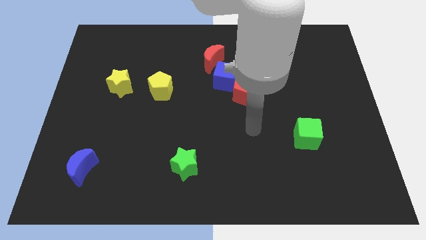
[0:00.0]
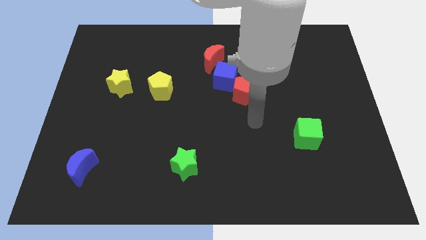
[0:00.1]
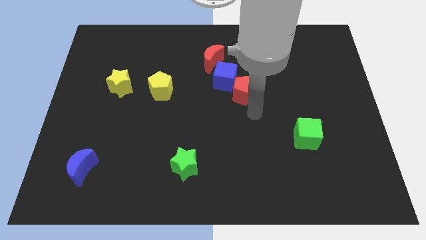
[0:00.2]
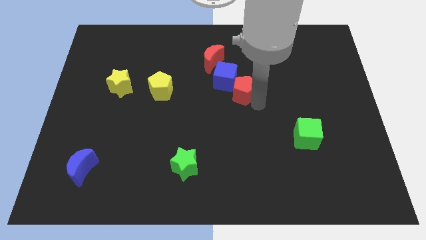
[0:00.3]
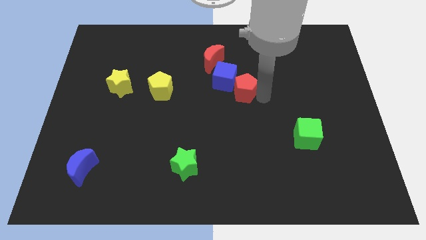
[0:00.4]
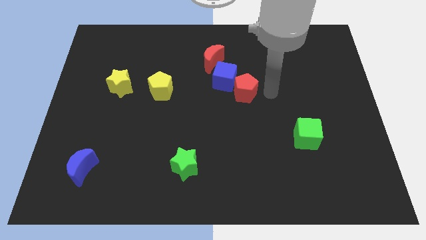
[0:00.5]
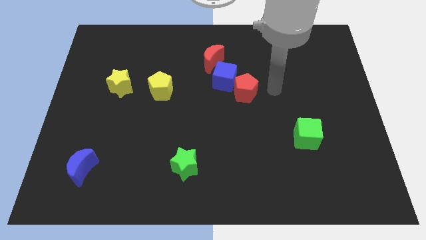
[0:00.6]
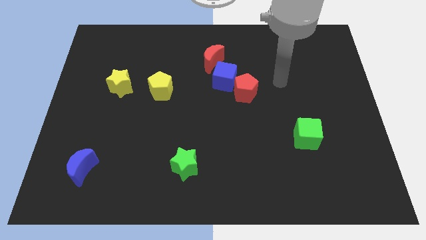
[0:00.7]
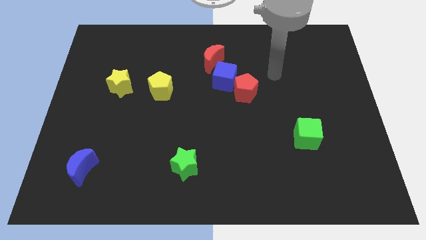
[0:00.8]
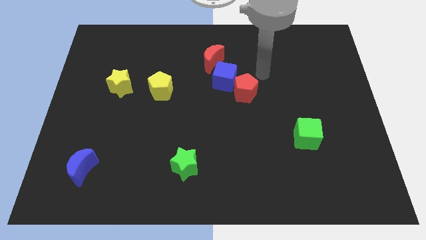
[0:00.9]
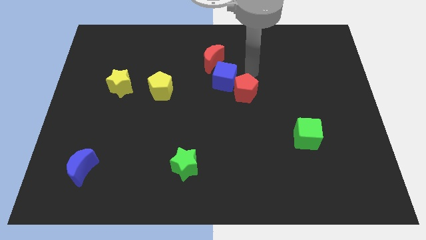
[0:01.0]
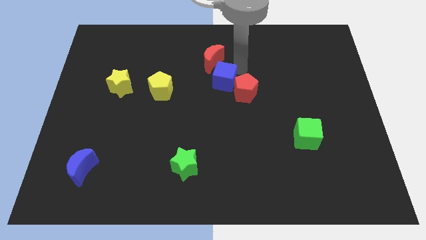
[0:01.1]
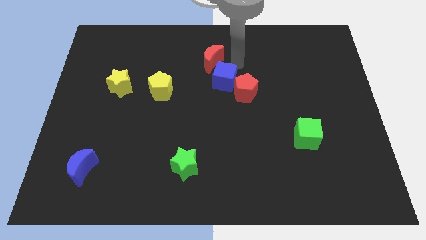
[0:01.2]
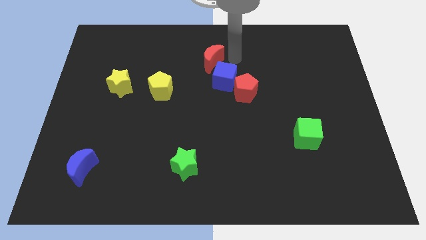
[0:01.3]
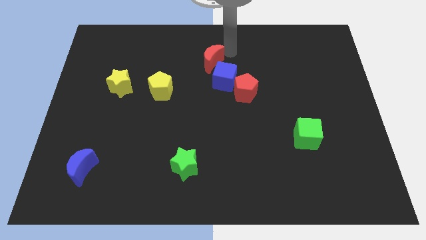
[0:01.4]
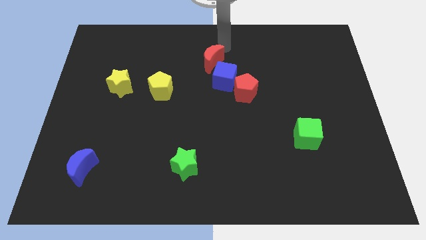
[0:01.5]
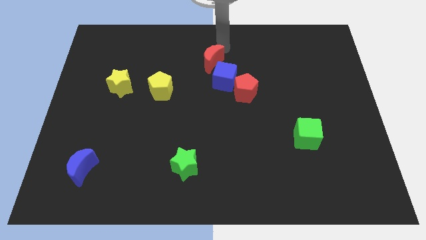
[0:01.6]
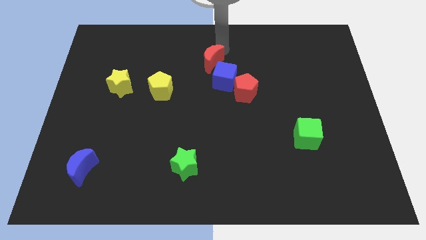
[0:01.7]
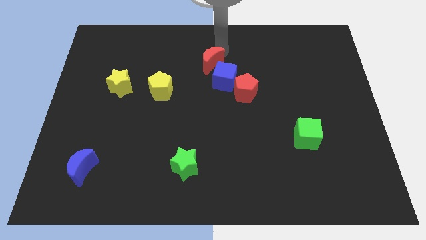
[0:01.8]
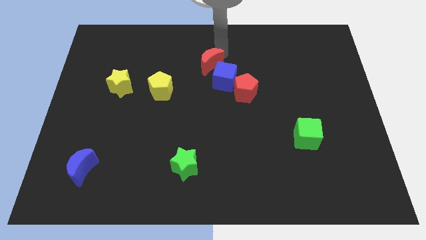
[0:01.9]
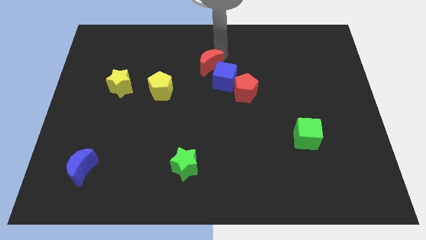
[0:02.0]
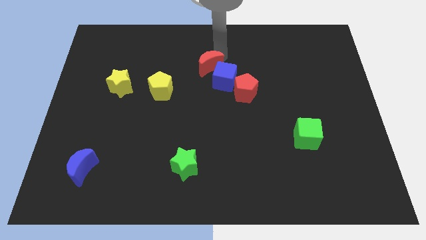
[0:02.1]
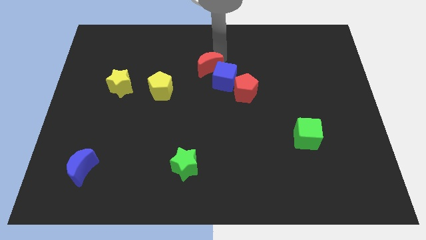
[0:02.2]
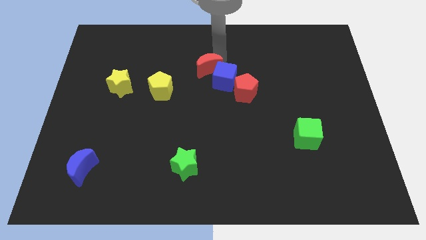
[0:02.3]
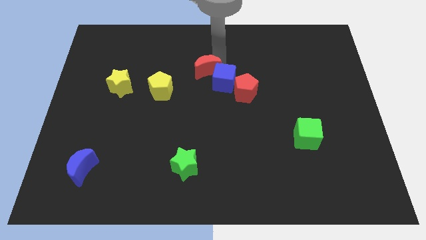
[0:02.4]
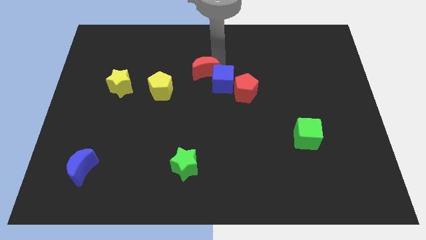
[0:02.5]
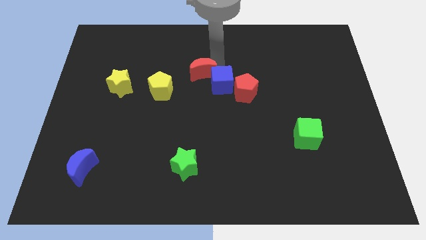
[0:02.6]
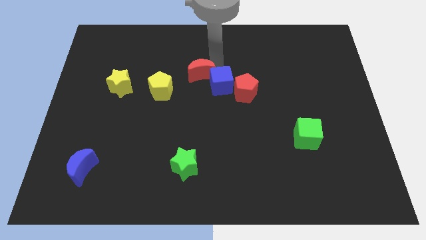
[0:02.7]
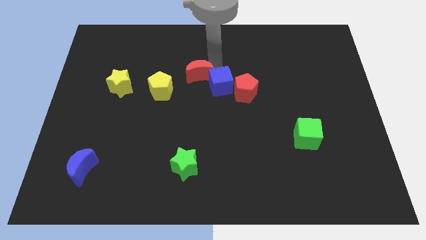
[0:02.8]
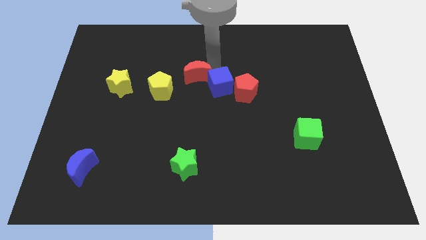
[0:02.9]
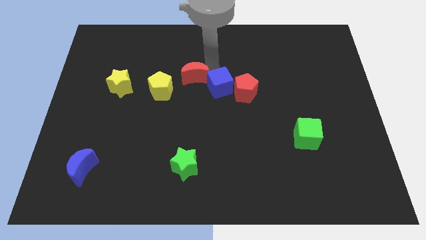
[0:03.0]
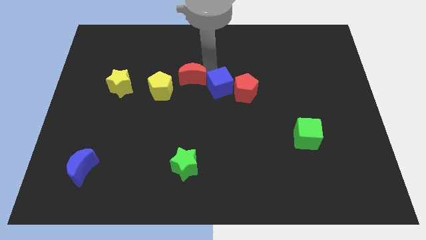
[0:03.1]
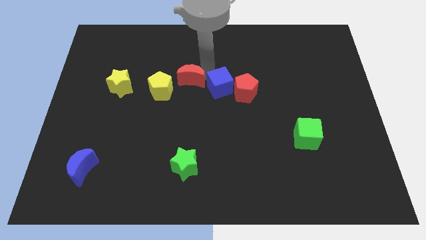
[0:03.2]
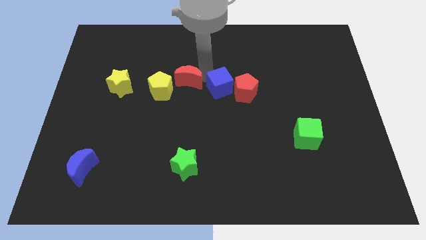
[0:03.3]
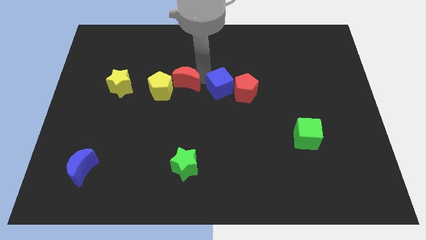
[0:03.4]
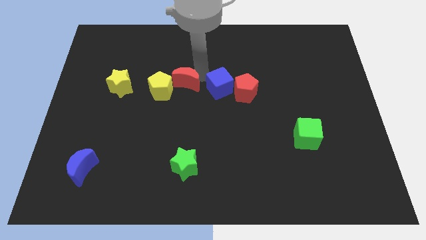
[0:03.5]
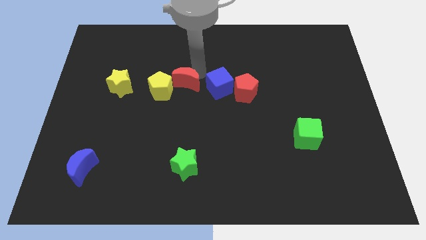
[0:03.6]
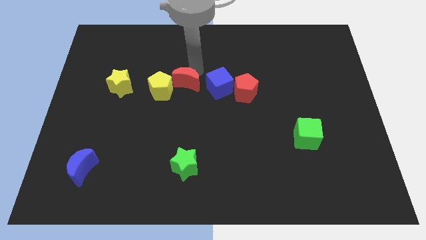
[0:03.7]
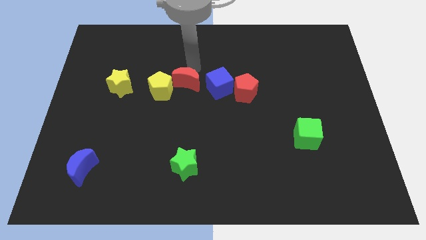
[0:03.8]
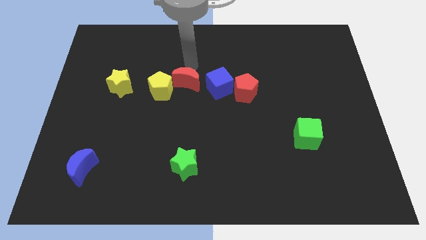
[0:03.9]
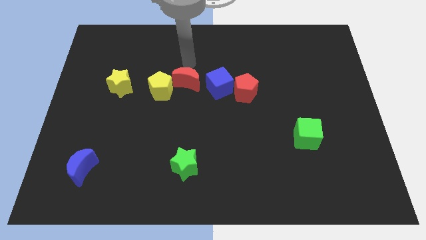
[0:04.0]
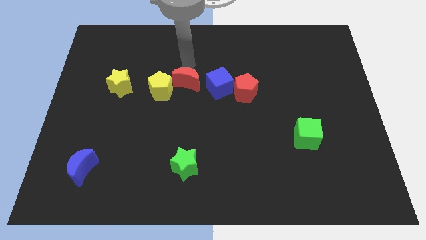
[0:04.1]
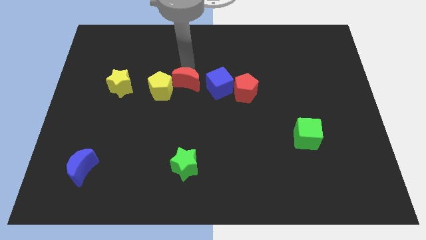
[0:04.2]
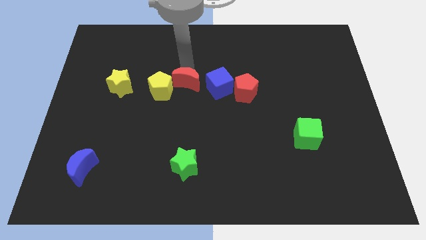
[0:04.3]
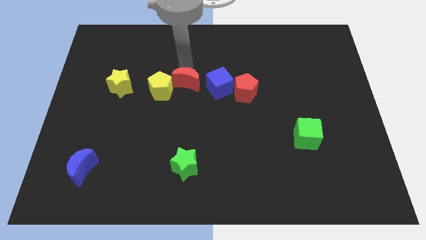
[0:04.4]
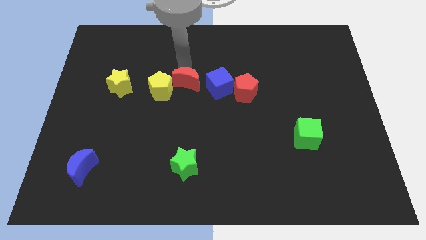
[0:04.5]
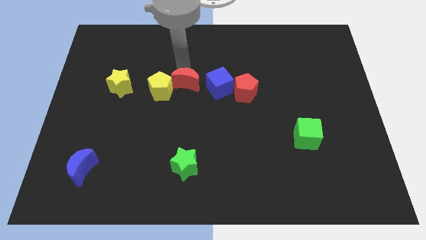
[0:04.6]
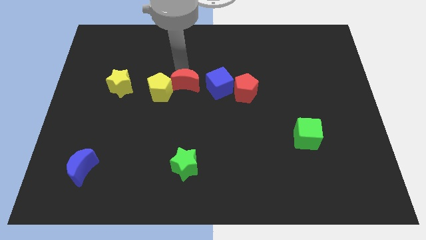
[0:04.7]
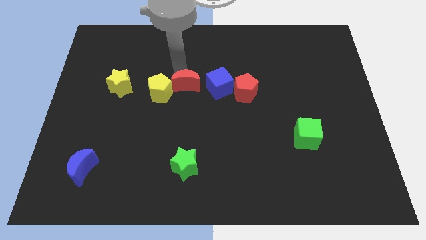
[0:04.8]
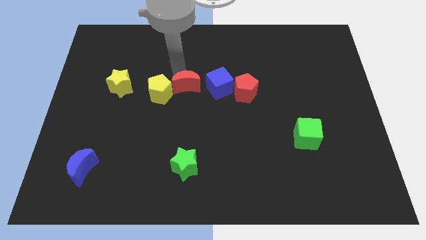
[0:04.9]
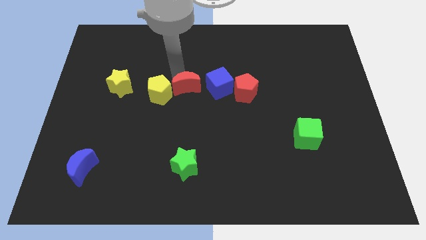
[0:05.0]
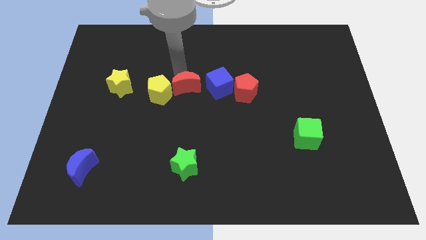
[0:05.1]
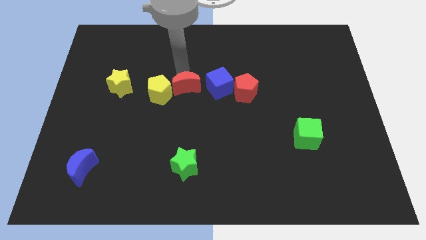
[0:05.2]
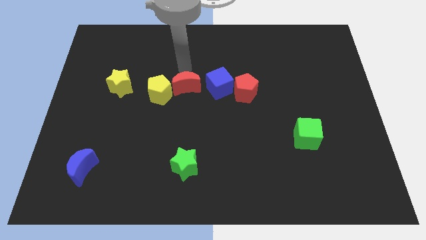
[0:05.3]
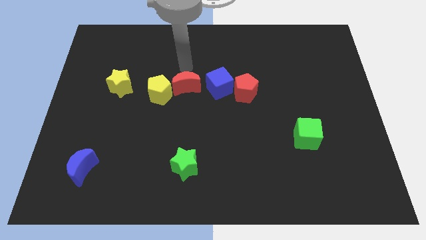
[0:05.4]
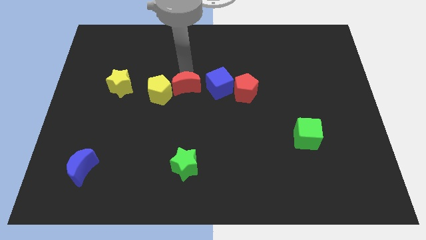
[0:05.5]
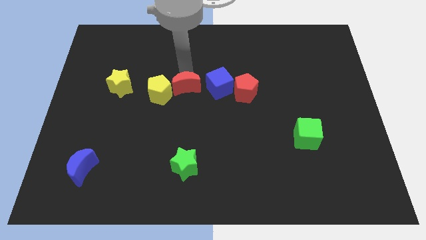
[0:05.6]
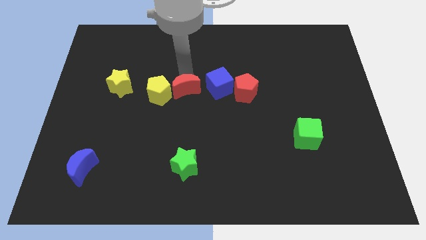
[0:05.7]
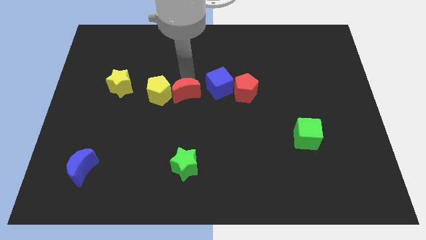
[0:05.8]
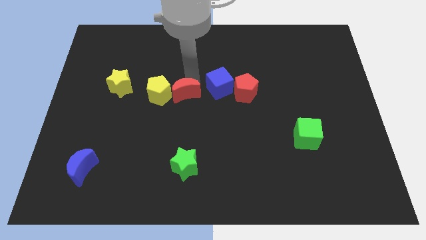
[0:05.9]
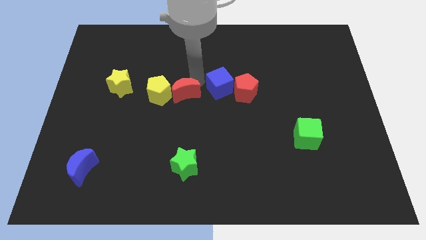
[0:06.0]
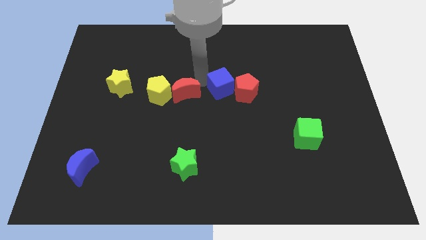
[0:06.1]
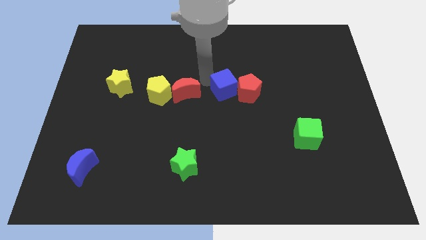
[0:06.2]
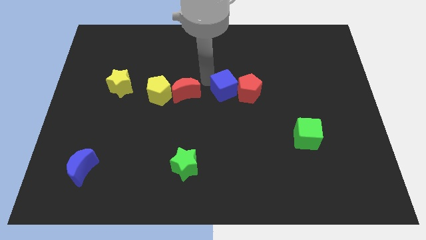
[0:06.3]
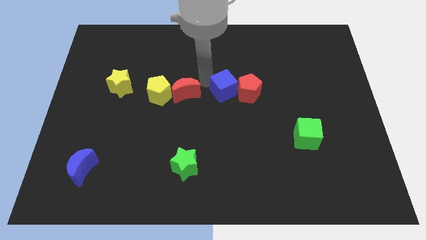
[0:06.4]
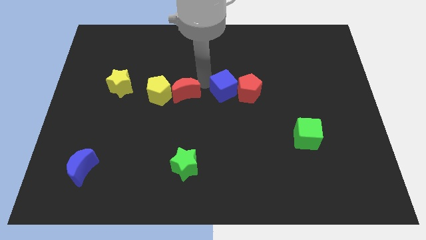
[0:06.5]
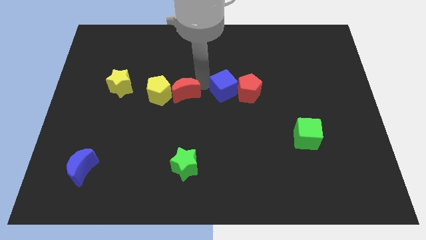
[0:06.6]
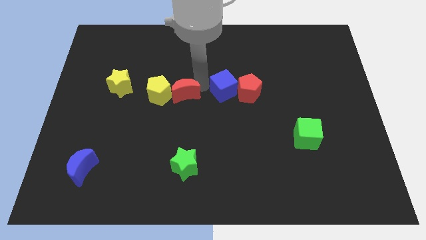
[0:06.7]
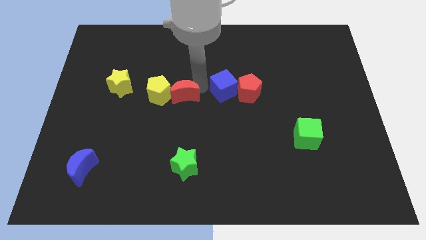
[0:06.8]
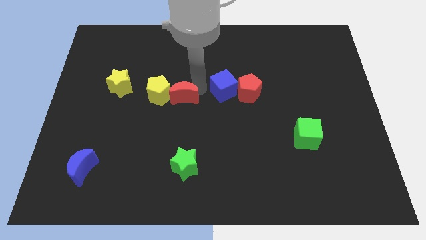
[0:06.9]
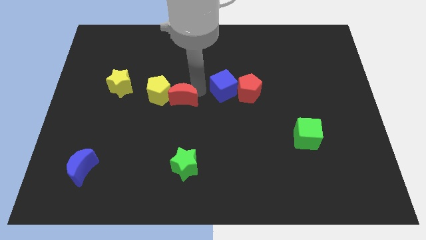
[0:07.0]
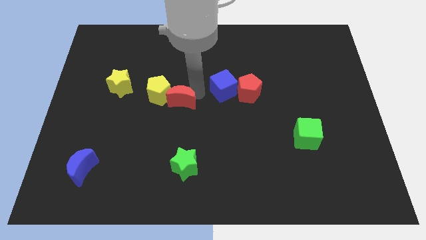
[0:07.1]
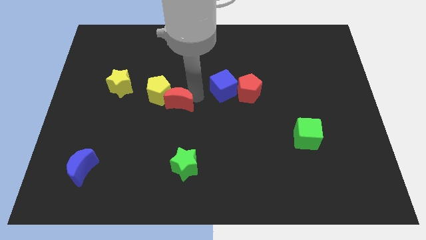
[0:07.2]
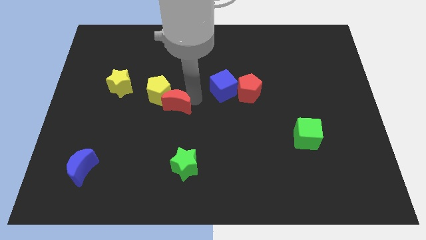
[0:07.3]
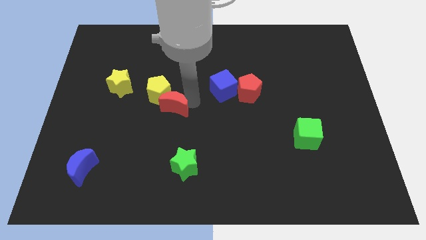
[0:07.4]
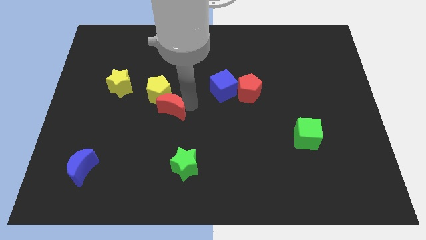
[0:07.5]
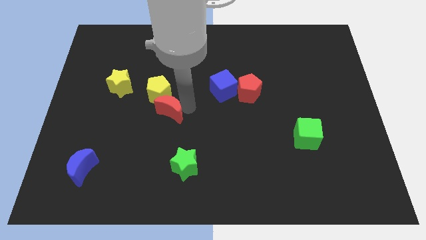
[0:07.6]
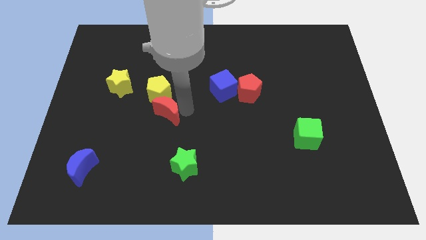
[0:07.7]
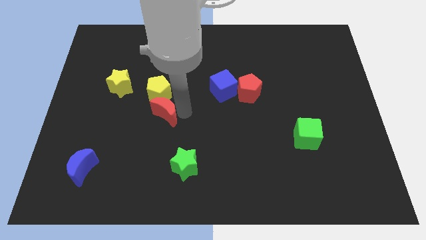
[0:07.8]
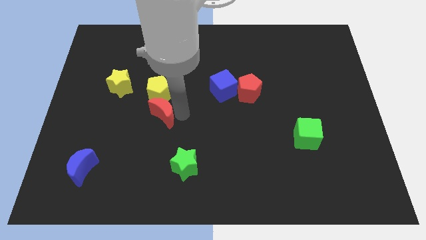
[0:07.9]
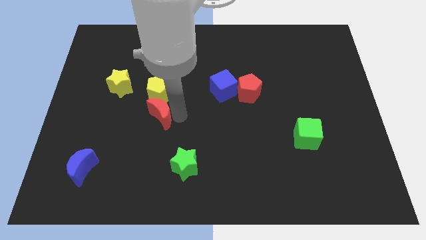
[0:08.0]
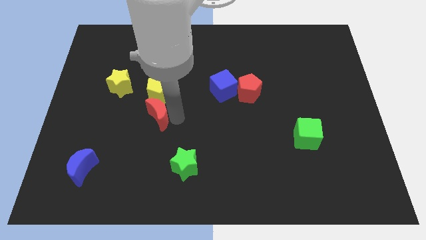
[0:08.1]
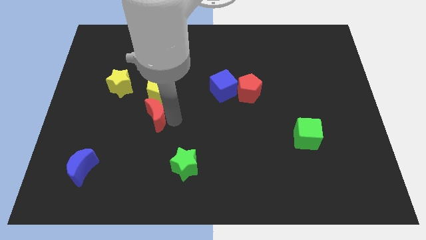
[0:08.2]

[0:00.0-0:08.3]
slide the red moon diagonally down and to the left of the yellow pentagon
